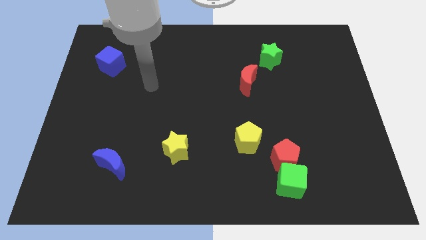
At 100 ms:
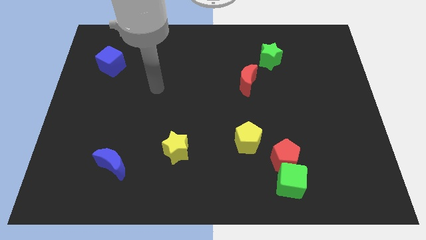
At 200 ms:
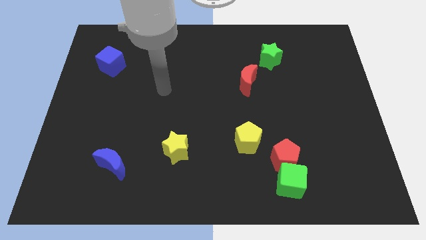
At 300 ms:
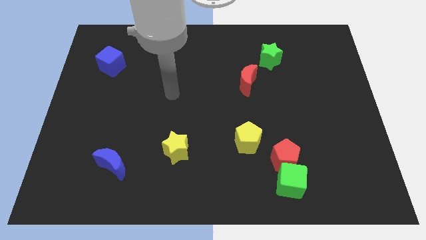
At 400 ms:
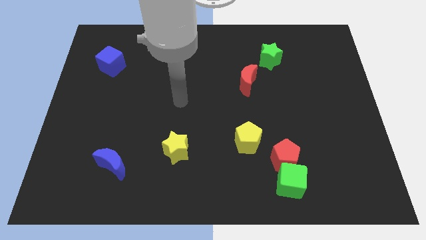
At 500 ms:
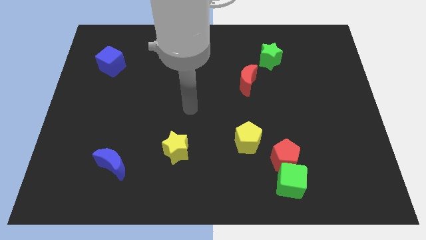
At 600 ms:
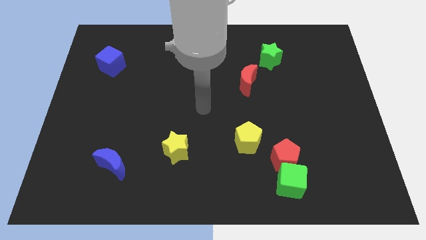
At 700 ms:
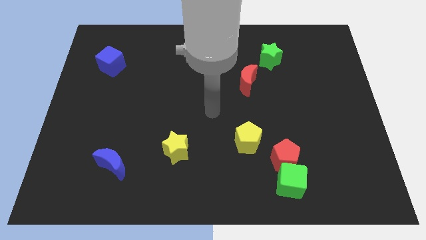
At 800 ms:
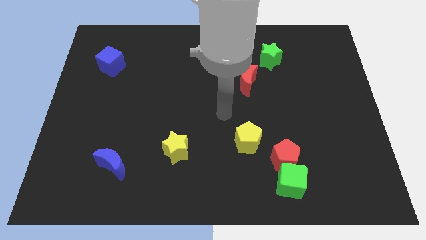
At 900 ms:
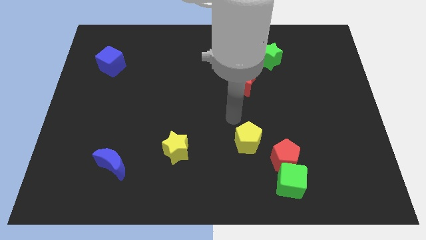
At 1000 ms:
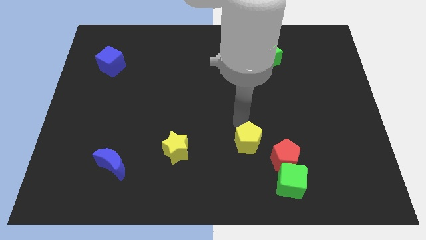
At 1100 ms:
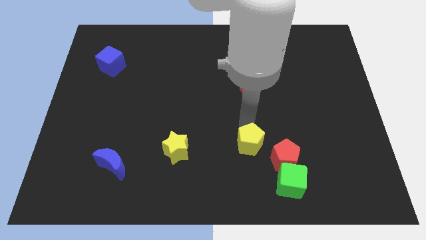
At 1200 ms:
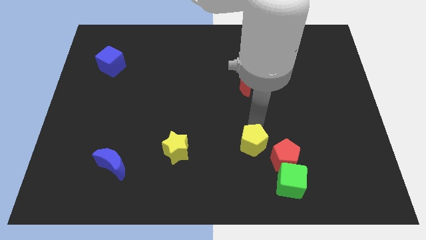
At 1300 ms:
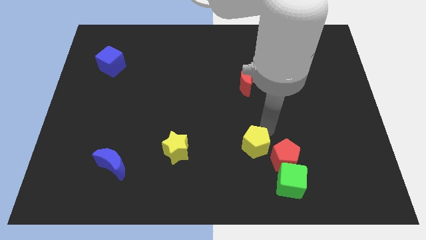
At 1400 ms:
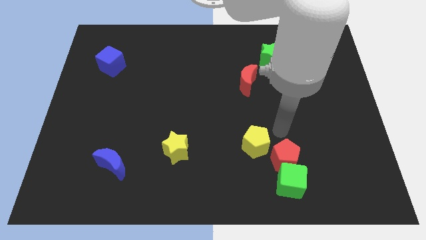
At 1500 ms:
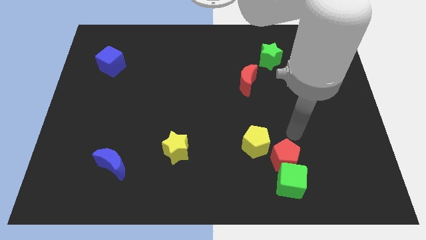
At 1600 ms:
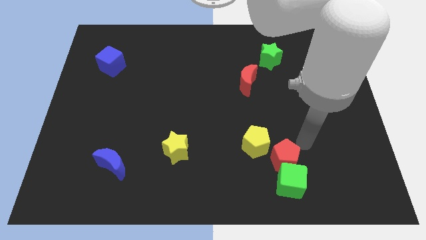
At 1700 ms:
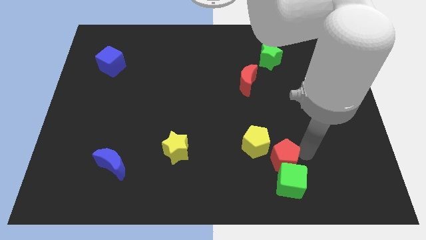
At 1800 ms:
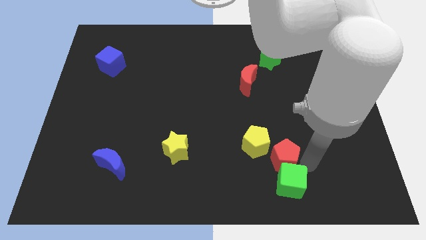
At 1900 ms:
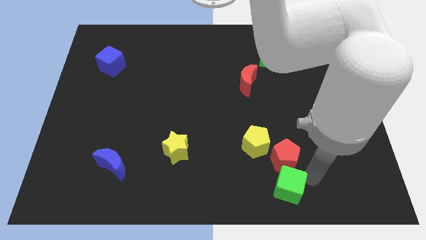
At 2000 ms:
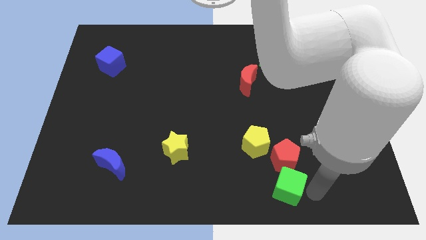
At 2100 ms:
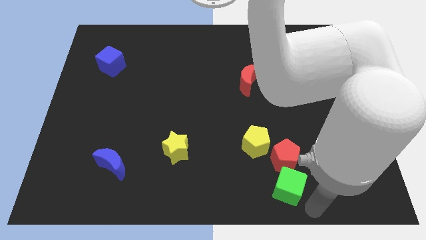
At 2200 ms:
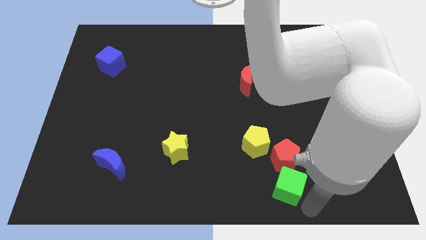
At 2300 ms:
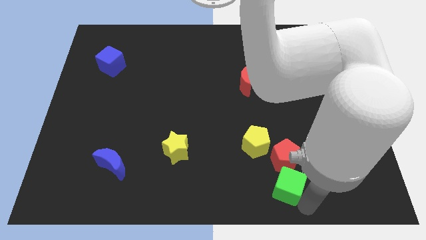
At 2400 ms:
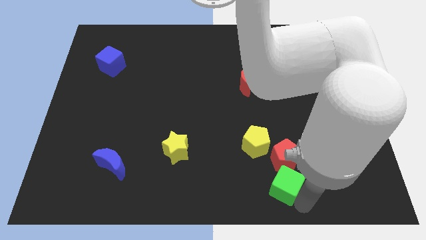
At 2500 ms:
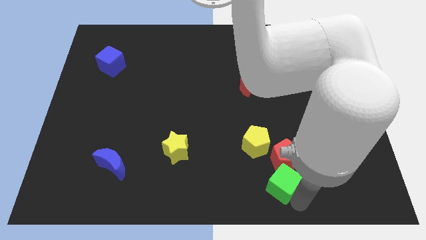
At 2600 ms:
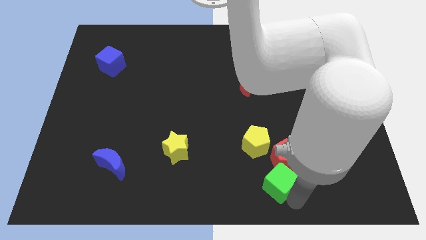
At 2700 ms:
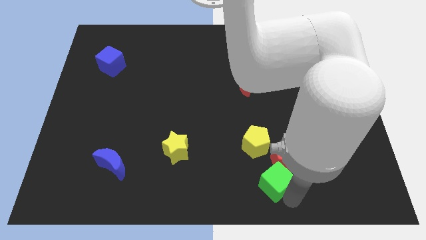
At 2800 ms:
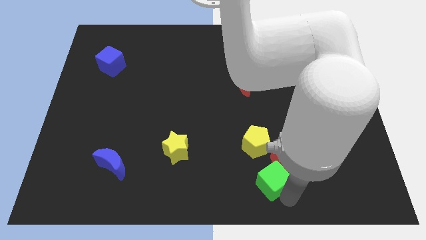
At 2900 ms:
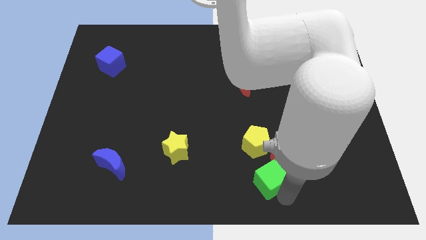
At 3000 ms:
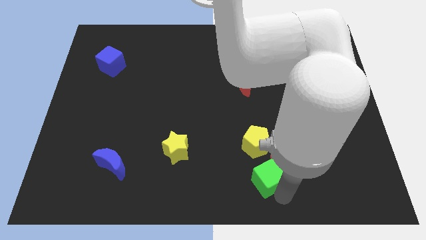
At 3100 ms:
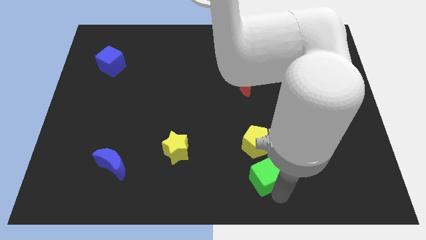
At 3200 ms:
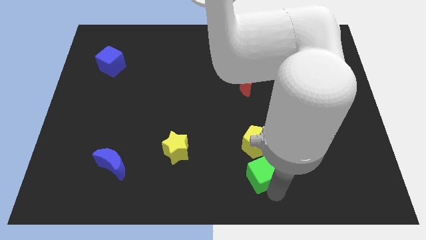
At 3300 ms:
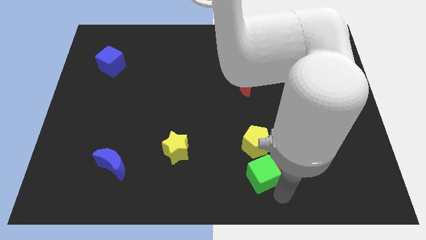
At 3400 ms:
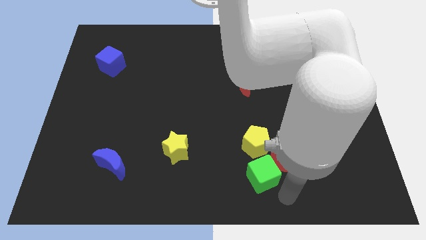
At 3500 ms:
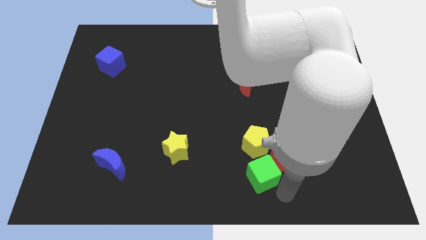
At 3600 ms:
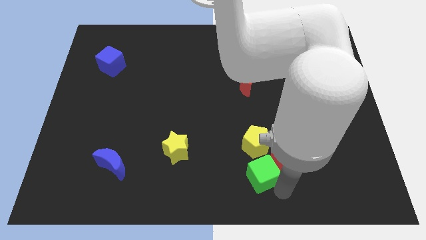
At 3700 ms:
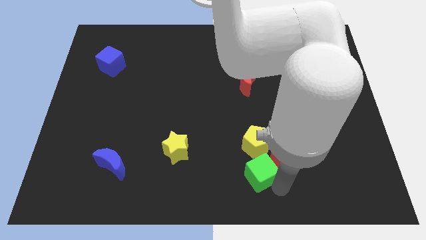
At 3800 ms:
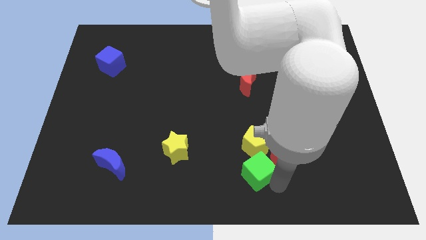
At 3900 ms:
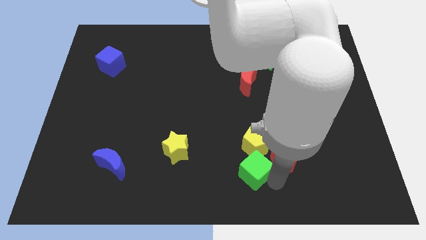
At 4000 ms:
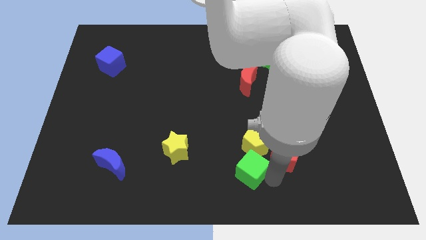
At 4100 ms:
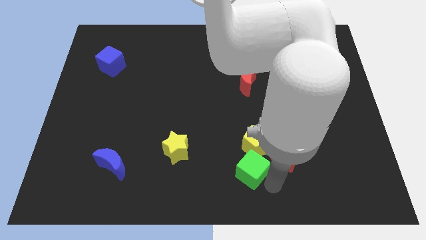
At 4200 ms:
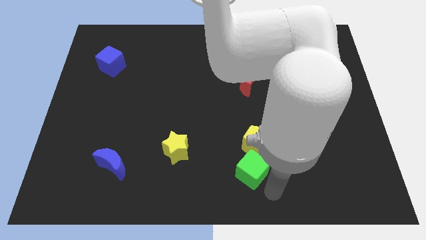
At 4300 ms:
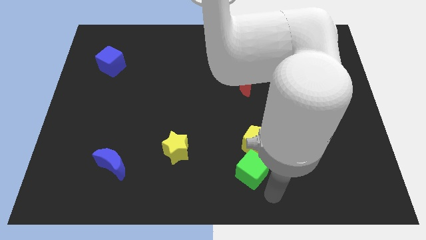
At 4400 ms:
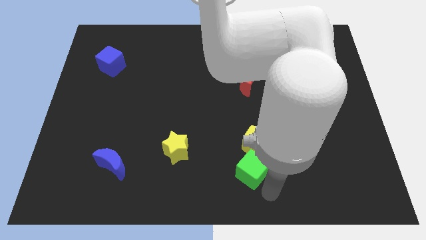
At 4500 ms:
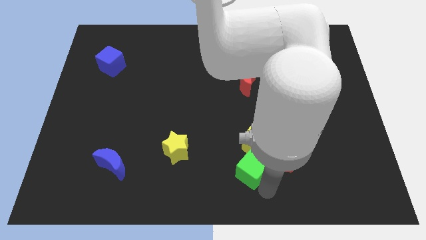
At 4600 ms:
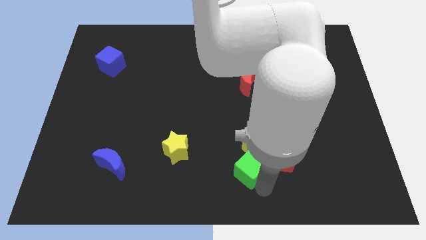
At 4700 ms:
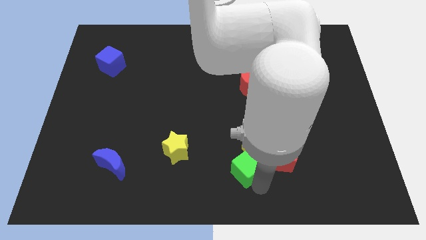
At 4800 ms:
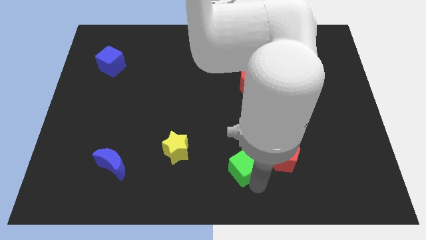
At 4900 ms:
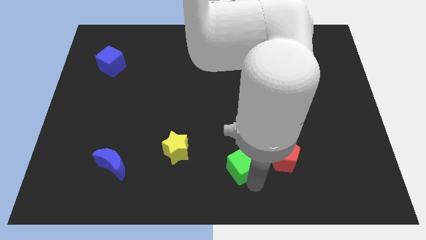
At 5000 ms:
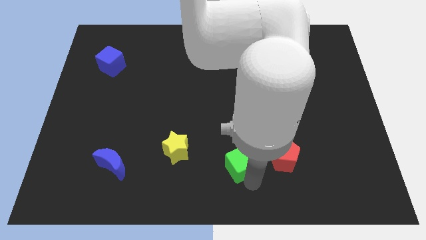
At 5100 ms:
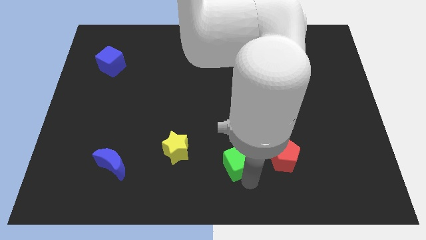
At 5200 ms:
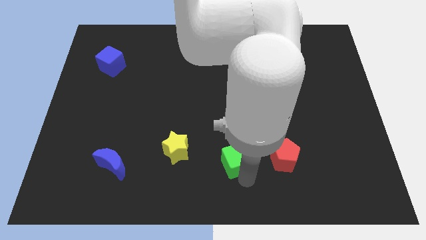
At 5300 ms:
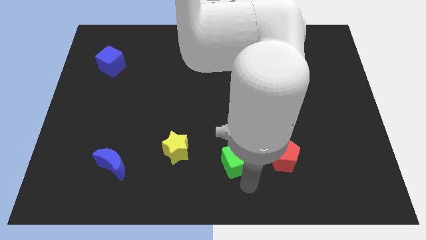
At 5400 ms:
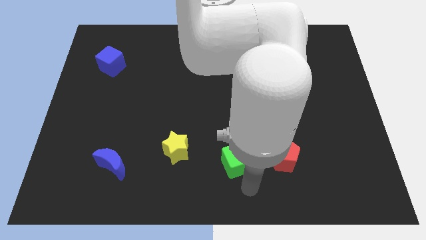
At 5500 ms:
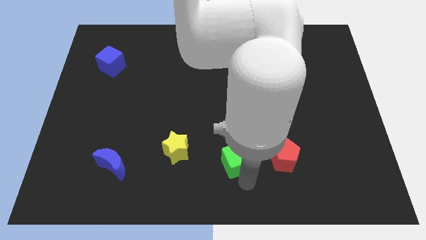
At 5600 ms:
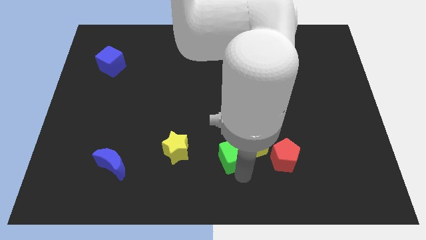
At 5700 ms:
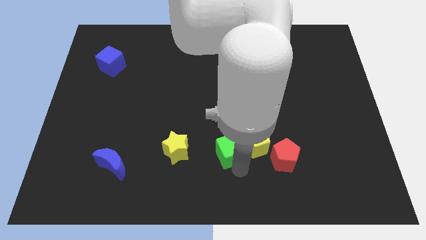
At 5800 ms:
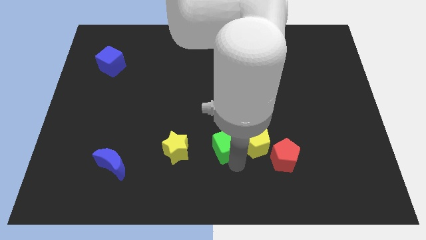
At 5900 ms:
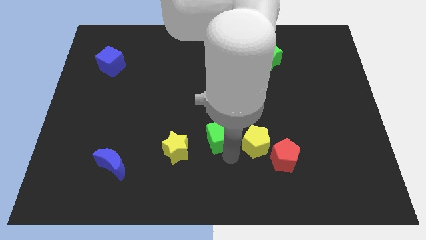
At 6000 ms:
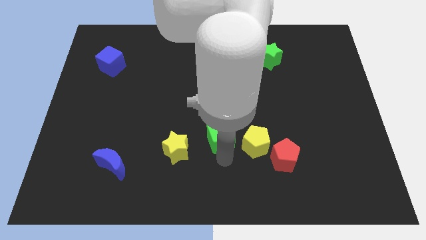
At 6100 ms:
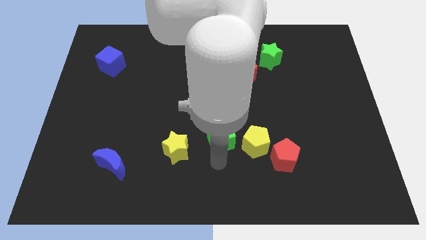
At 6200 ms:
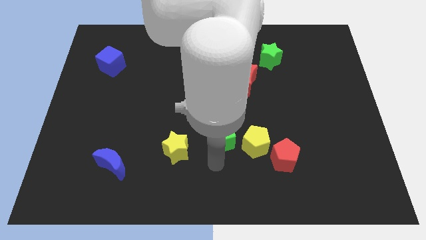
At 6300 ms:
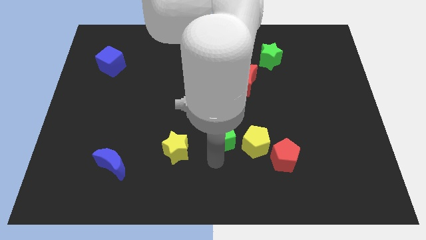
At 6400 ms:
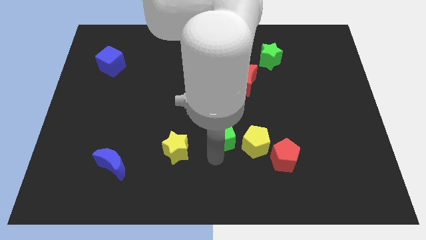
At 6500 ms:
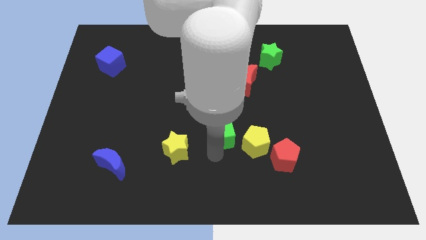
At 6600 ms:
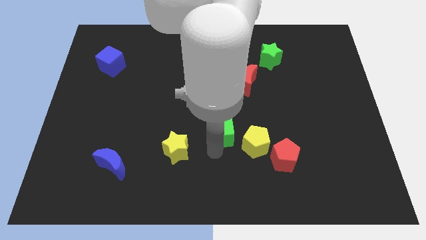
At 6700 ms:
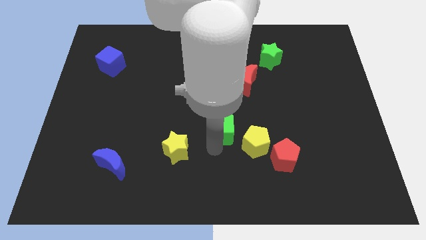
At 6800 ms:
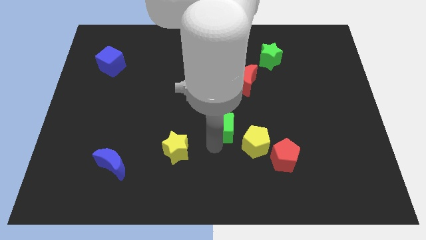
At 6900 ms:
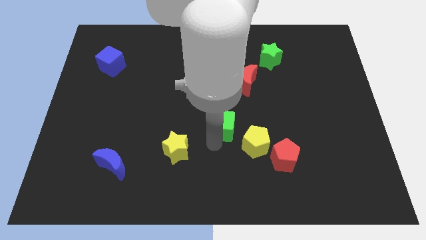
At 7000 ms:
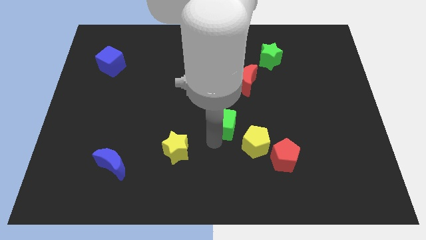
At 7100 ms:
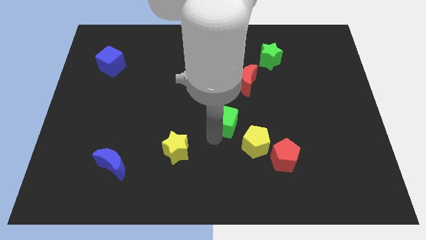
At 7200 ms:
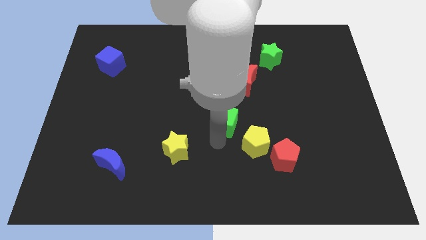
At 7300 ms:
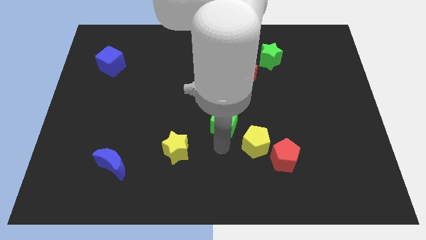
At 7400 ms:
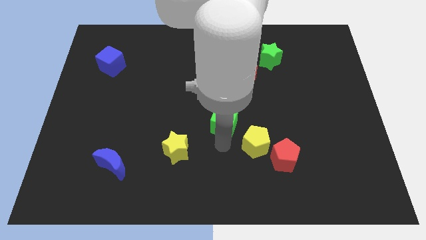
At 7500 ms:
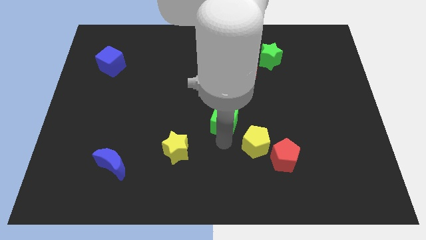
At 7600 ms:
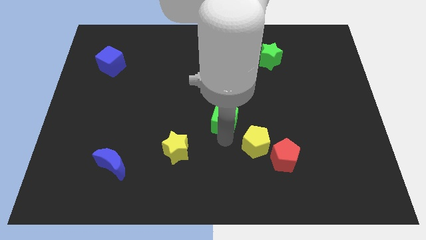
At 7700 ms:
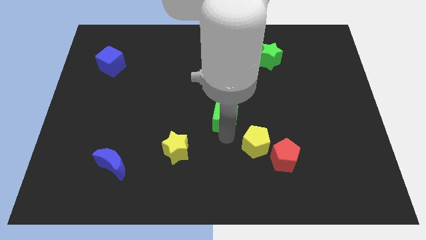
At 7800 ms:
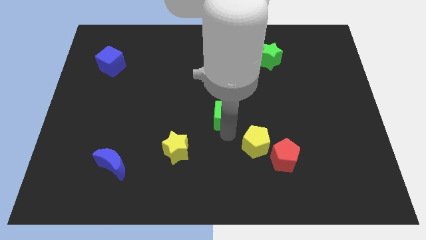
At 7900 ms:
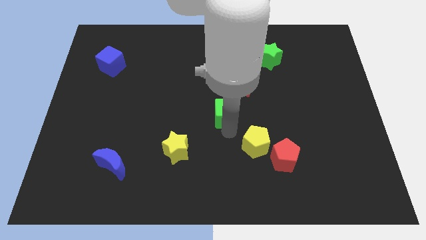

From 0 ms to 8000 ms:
put the green cube diagonally down and to the left of the red moon

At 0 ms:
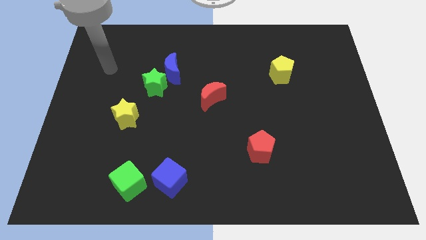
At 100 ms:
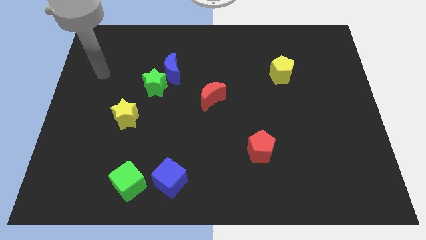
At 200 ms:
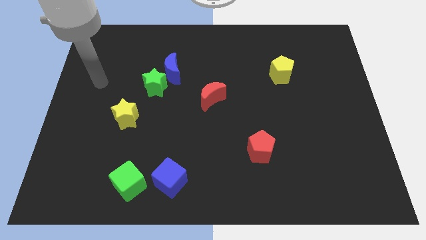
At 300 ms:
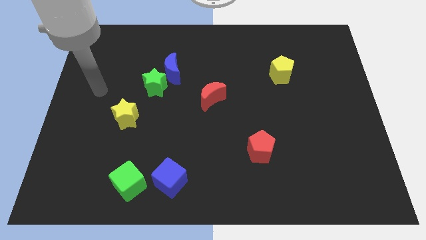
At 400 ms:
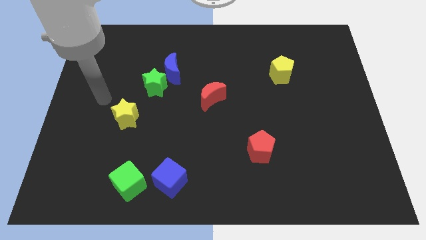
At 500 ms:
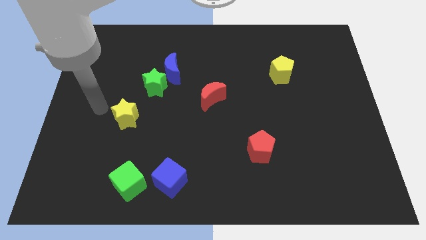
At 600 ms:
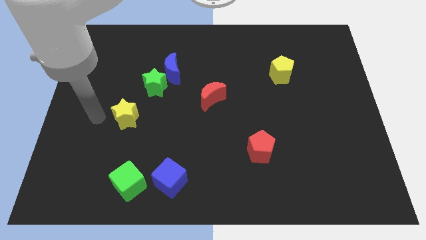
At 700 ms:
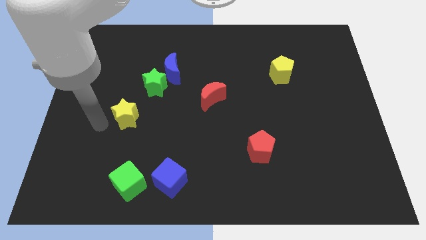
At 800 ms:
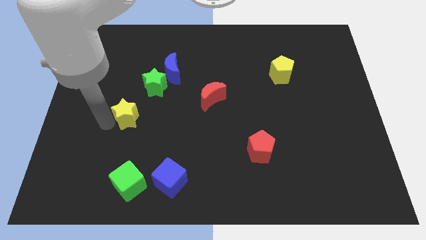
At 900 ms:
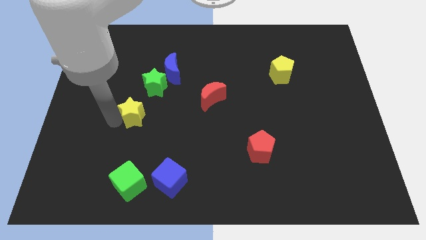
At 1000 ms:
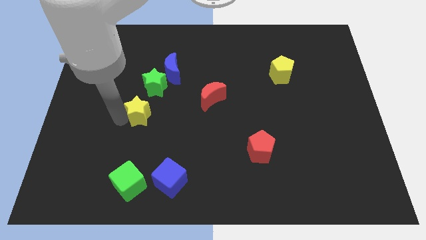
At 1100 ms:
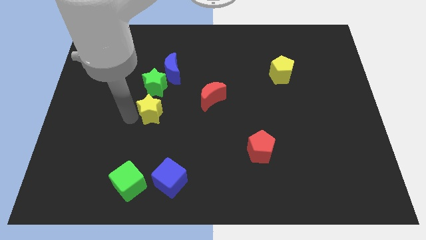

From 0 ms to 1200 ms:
push the yellow star to the left of the red moon
